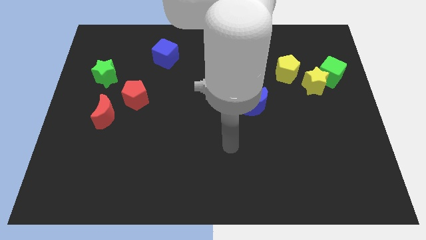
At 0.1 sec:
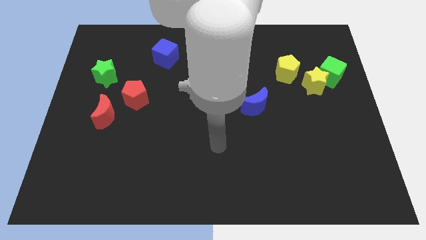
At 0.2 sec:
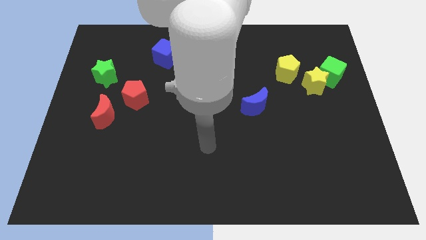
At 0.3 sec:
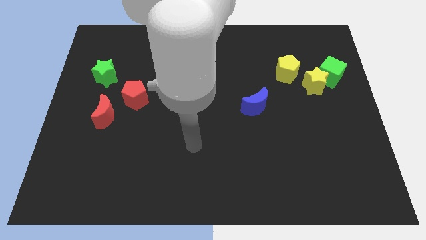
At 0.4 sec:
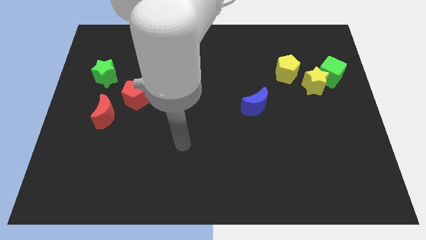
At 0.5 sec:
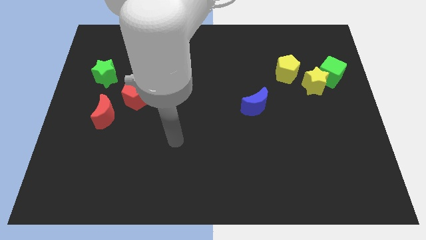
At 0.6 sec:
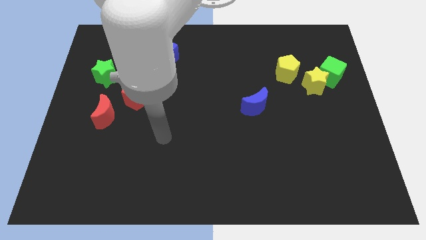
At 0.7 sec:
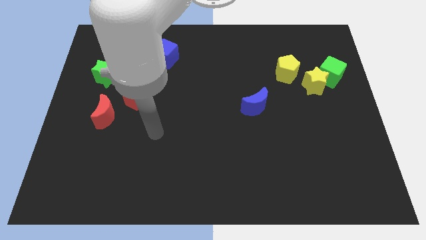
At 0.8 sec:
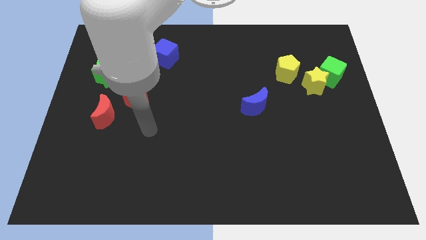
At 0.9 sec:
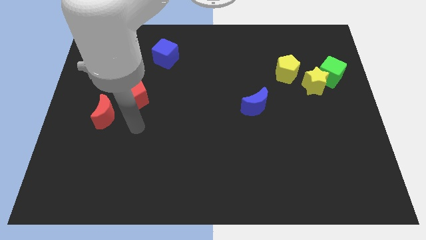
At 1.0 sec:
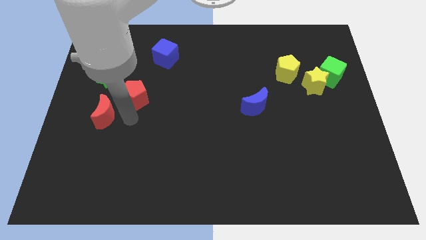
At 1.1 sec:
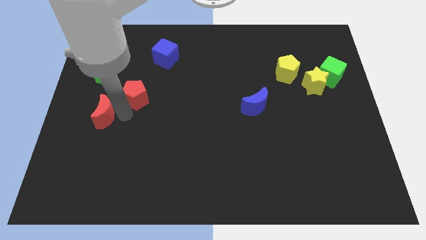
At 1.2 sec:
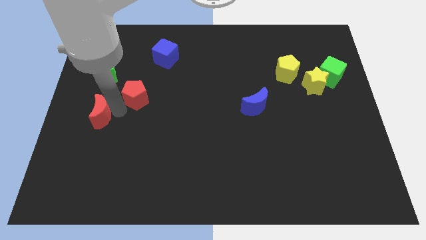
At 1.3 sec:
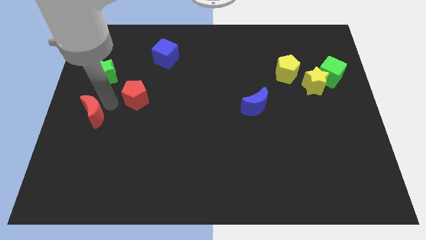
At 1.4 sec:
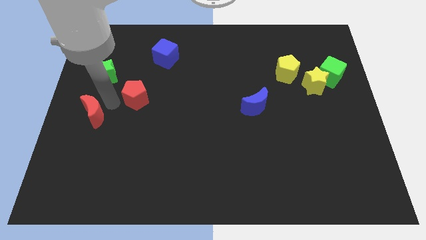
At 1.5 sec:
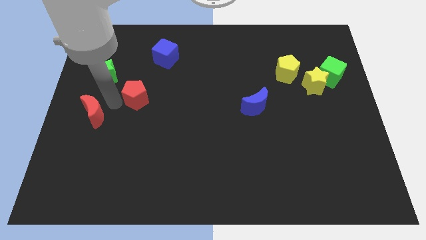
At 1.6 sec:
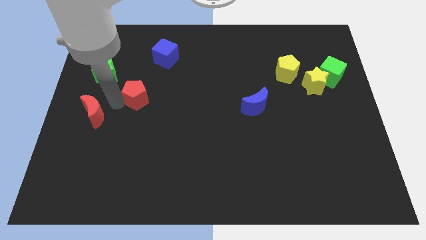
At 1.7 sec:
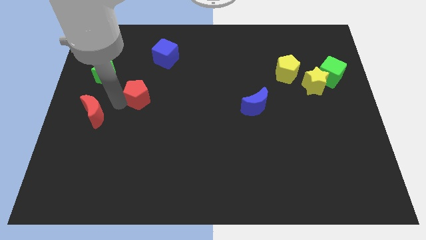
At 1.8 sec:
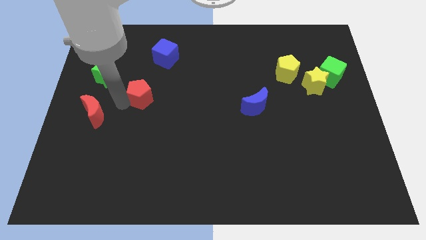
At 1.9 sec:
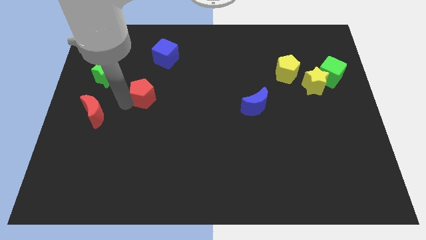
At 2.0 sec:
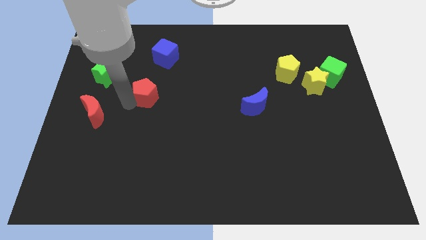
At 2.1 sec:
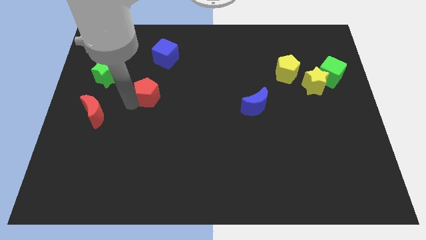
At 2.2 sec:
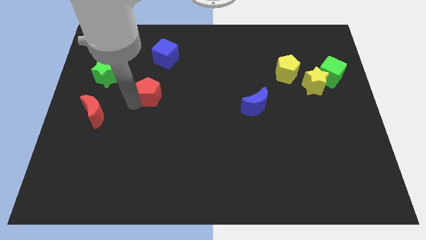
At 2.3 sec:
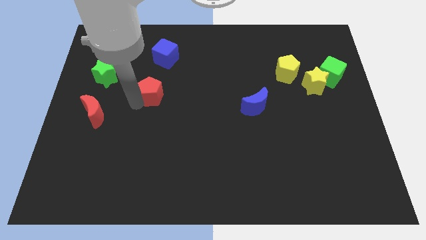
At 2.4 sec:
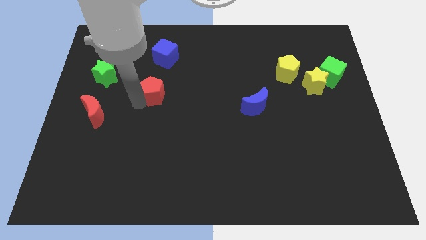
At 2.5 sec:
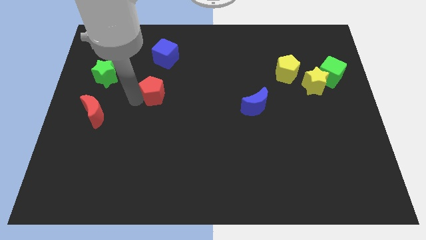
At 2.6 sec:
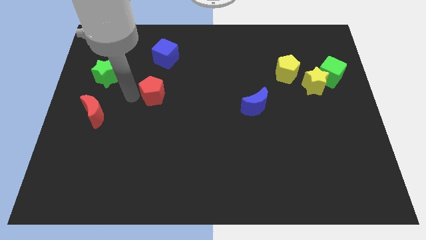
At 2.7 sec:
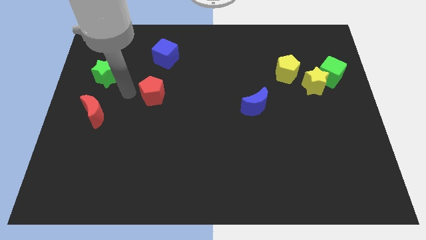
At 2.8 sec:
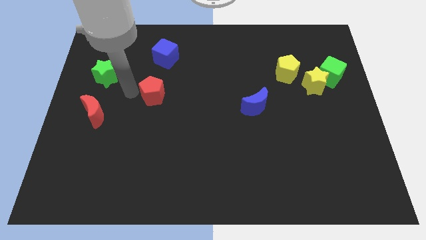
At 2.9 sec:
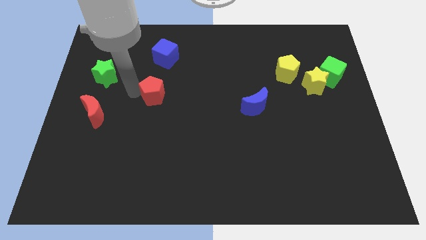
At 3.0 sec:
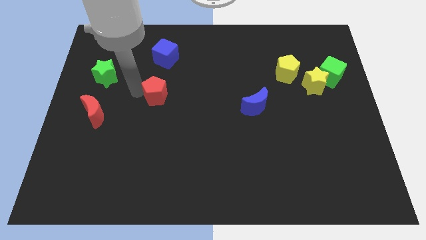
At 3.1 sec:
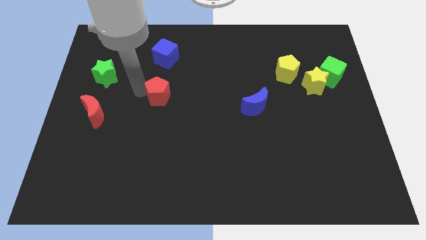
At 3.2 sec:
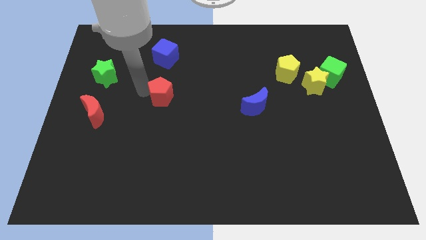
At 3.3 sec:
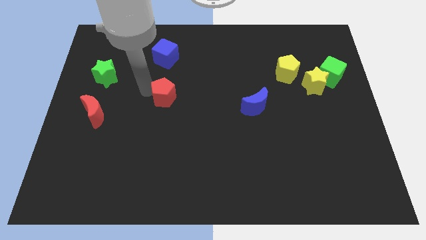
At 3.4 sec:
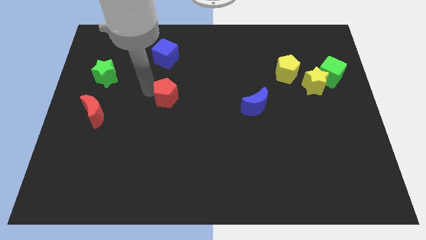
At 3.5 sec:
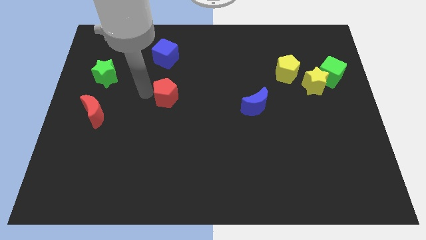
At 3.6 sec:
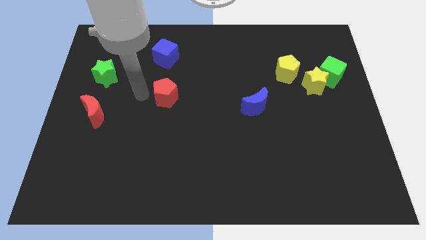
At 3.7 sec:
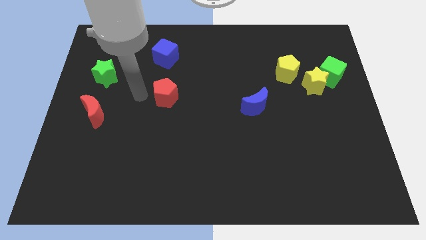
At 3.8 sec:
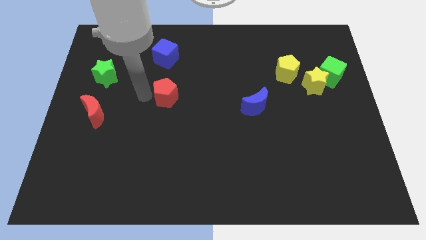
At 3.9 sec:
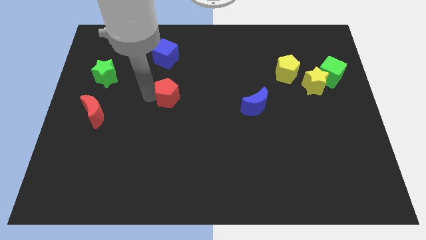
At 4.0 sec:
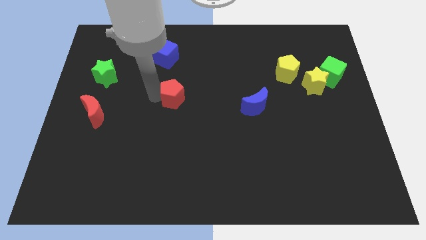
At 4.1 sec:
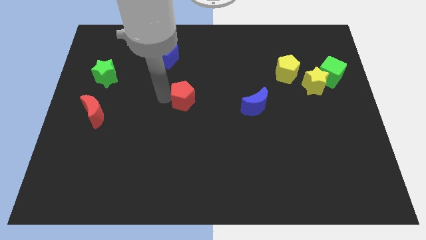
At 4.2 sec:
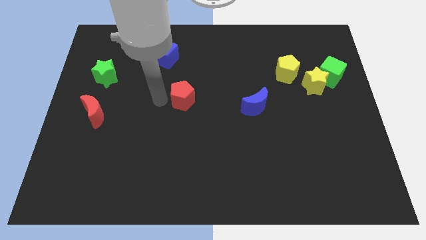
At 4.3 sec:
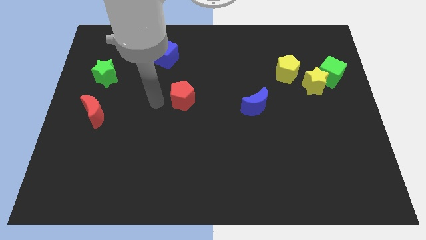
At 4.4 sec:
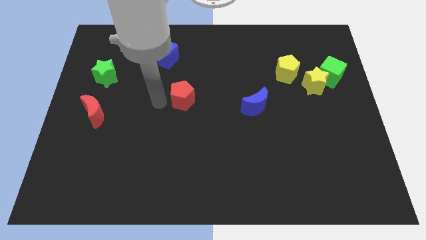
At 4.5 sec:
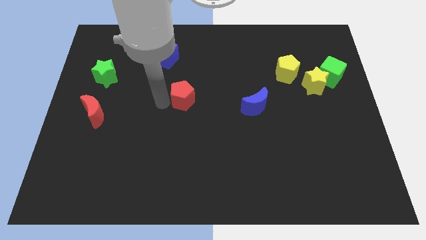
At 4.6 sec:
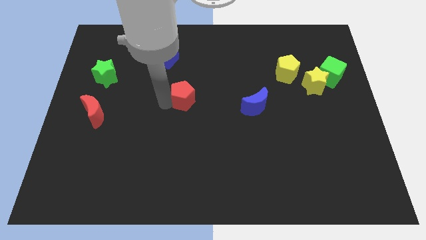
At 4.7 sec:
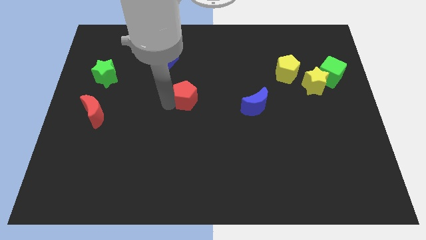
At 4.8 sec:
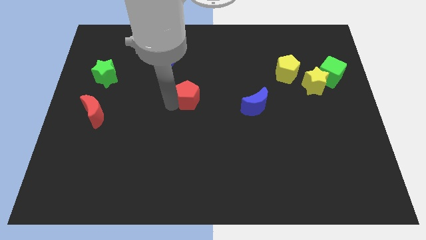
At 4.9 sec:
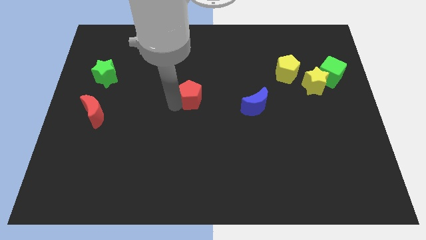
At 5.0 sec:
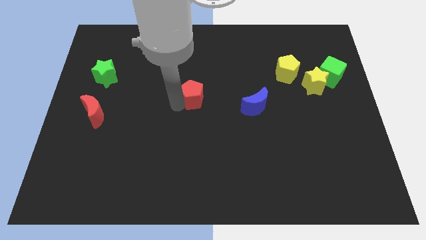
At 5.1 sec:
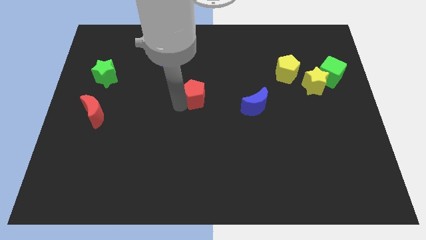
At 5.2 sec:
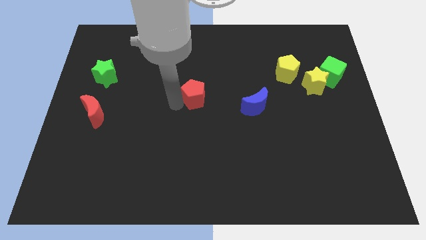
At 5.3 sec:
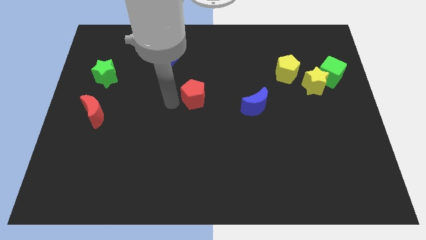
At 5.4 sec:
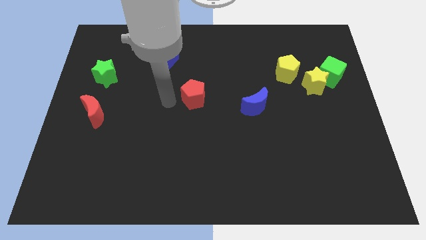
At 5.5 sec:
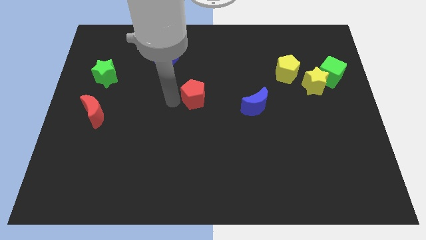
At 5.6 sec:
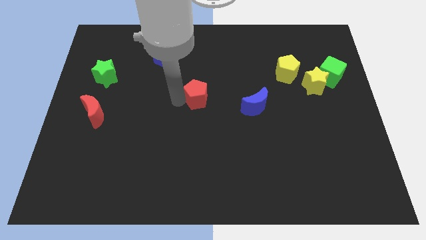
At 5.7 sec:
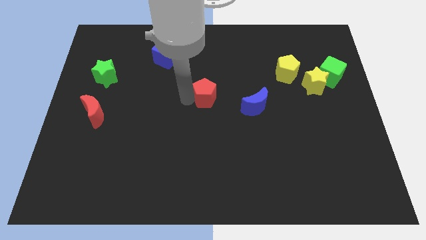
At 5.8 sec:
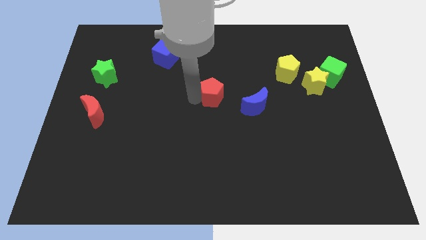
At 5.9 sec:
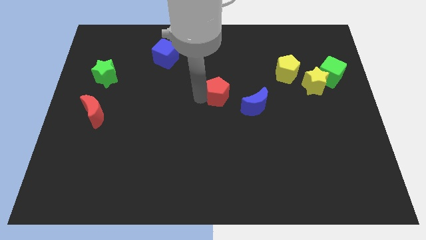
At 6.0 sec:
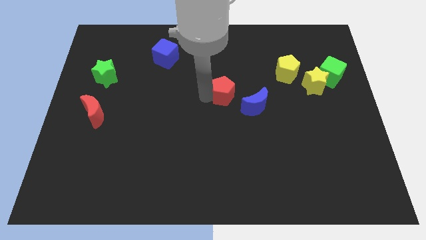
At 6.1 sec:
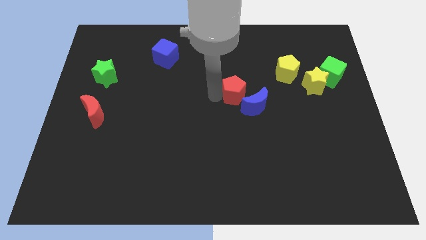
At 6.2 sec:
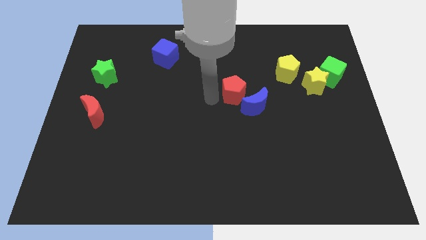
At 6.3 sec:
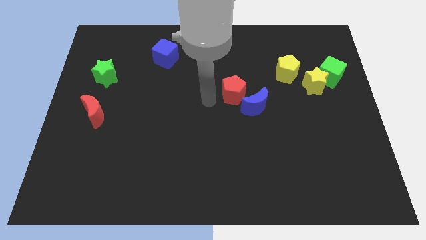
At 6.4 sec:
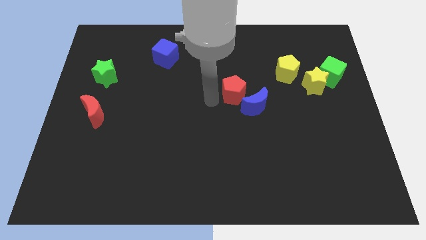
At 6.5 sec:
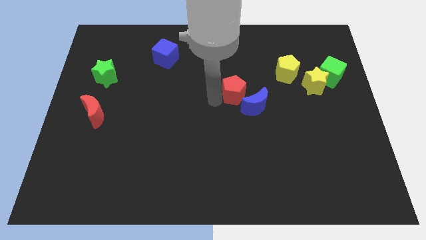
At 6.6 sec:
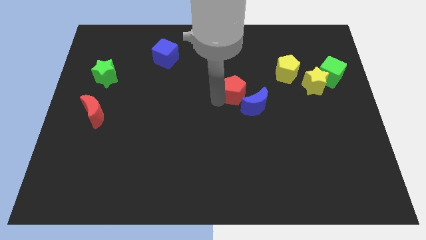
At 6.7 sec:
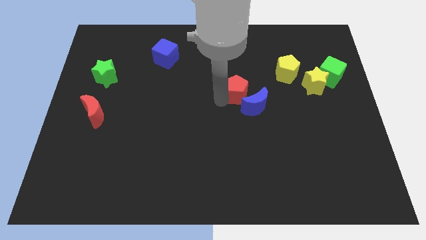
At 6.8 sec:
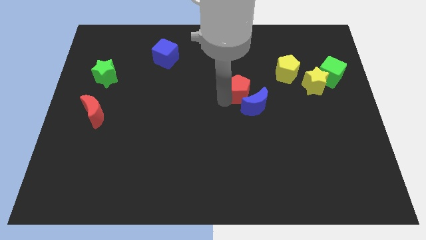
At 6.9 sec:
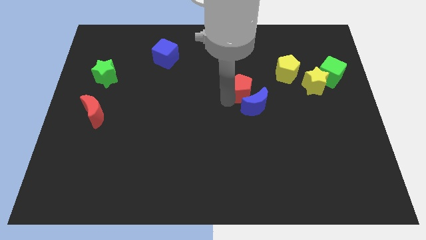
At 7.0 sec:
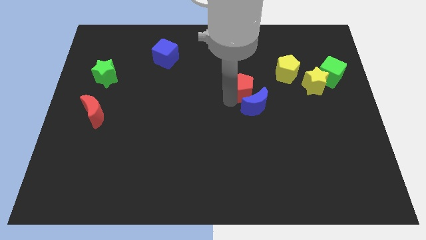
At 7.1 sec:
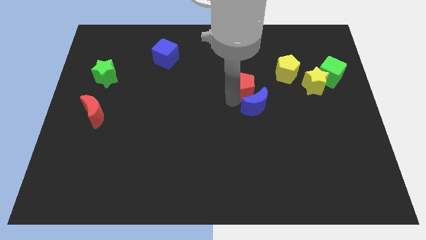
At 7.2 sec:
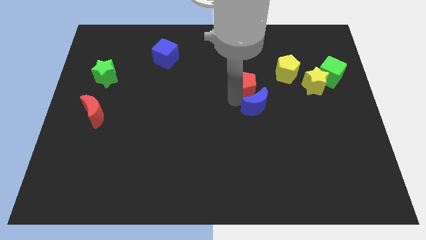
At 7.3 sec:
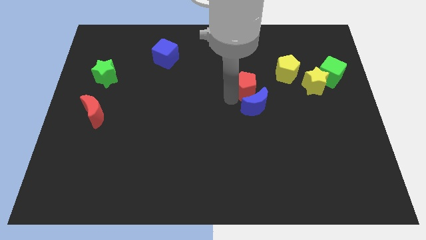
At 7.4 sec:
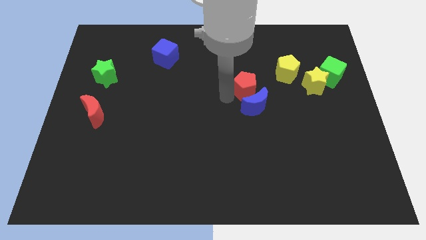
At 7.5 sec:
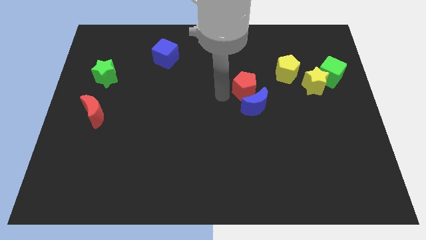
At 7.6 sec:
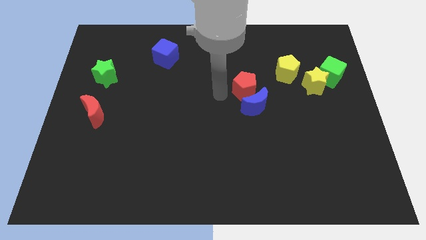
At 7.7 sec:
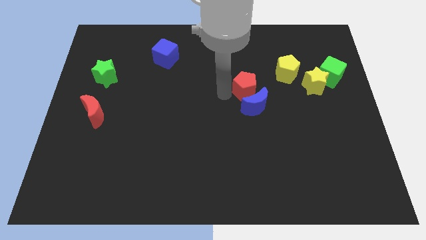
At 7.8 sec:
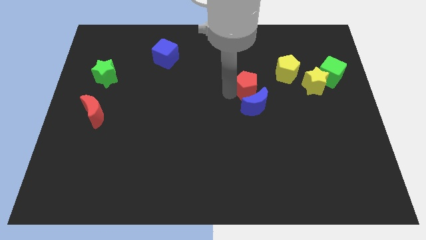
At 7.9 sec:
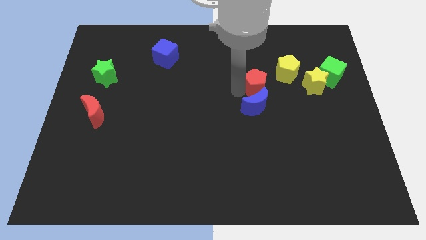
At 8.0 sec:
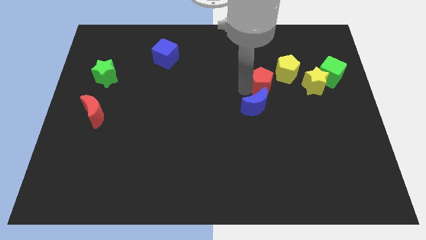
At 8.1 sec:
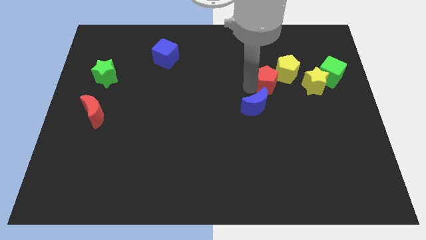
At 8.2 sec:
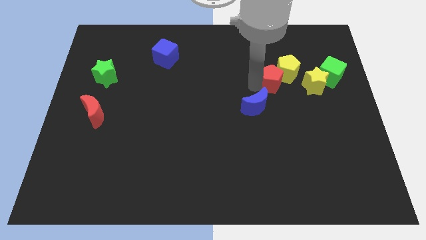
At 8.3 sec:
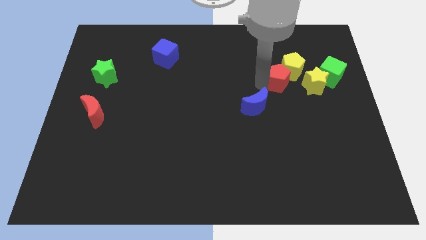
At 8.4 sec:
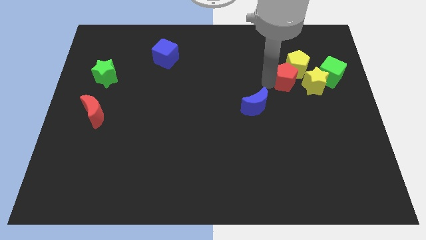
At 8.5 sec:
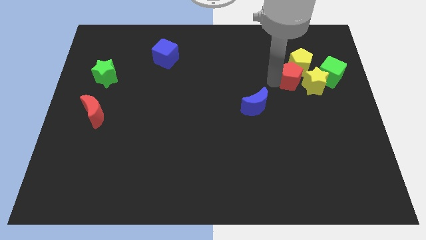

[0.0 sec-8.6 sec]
put the red pentagon next to the yellow star
